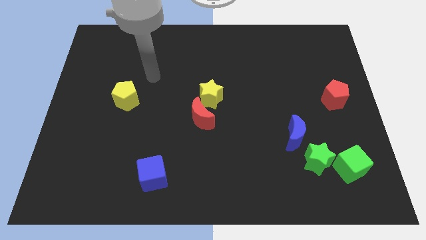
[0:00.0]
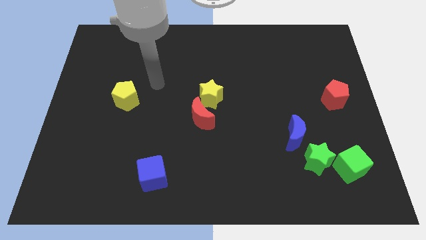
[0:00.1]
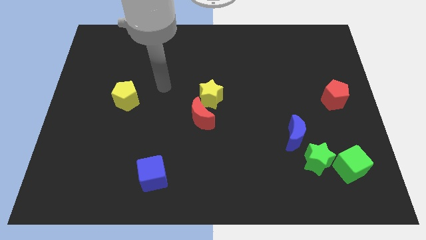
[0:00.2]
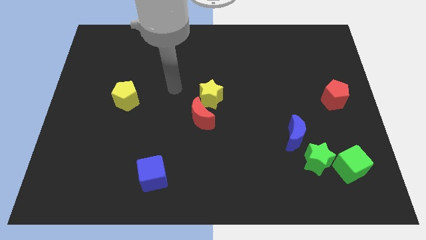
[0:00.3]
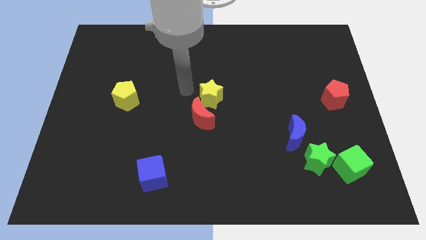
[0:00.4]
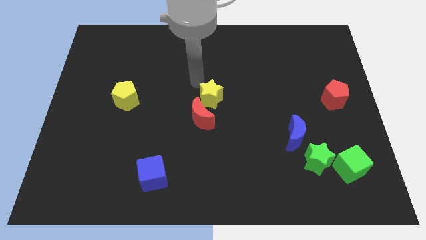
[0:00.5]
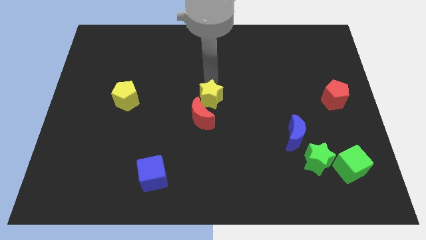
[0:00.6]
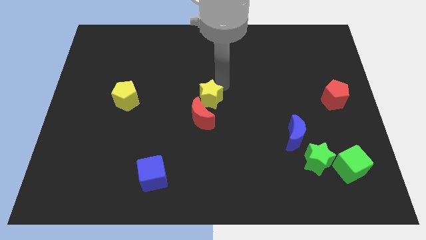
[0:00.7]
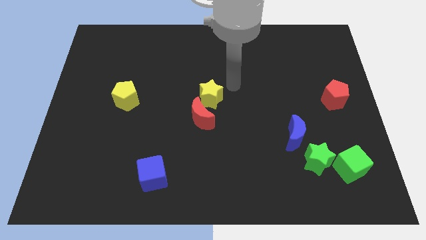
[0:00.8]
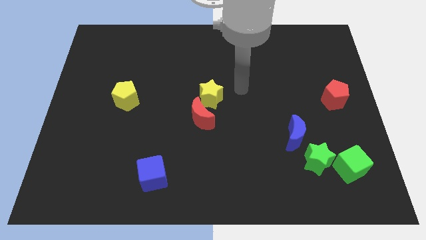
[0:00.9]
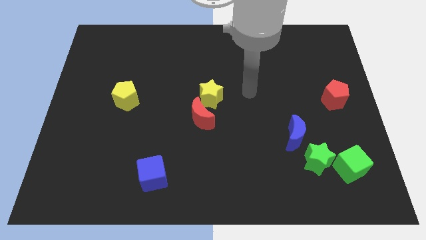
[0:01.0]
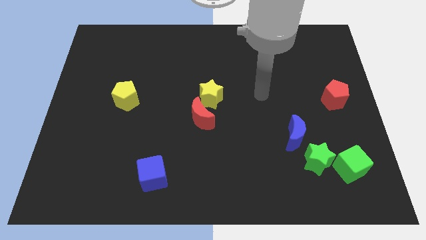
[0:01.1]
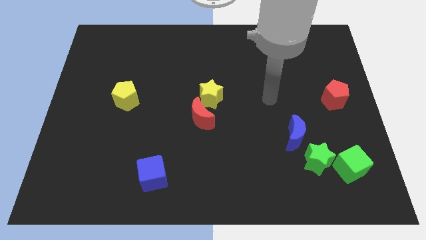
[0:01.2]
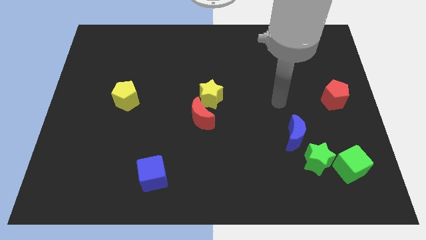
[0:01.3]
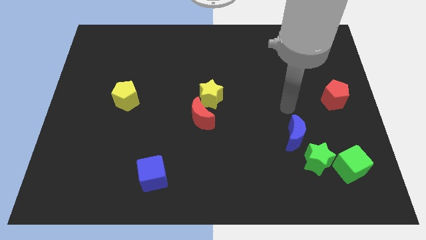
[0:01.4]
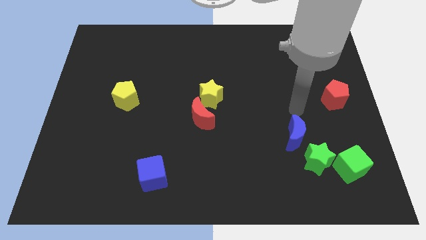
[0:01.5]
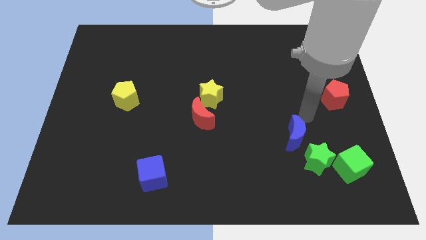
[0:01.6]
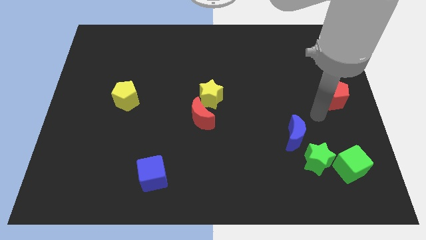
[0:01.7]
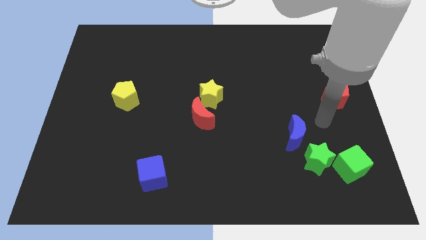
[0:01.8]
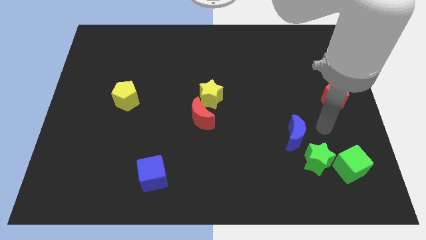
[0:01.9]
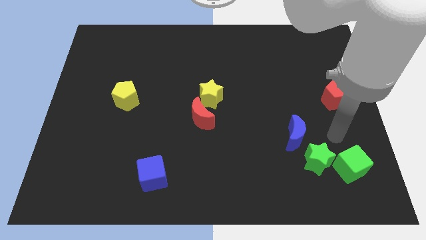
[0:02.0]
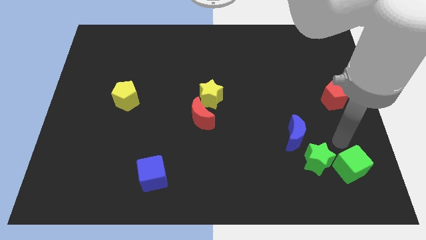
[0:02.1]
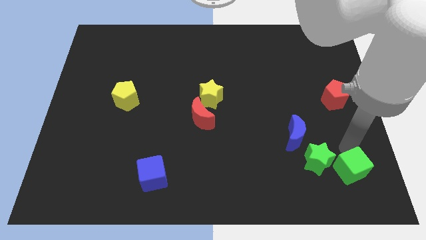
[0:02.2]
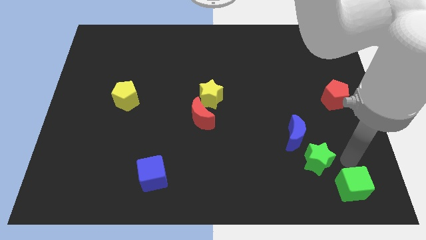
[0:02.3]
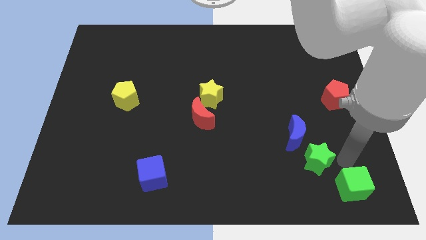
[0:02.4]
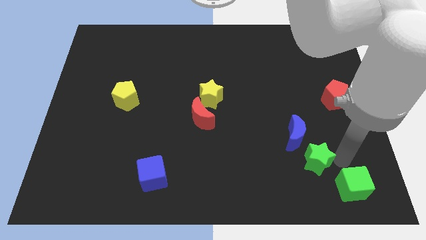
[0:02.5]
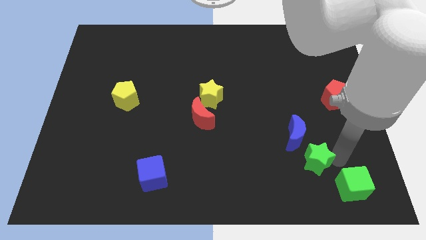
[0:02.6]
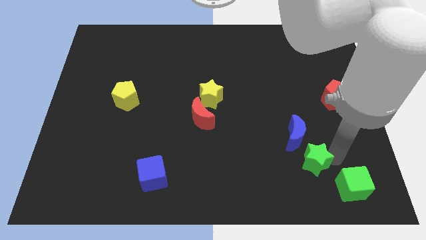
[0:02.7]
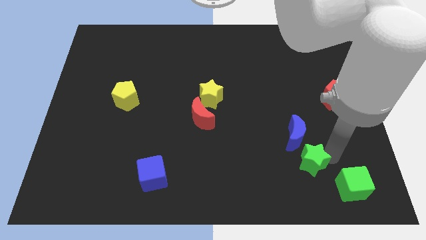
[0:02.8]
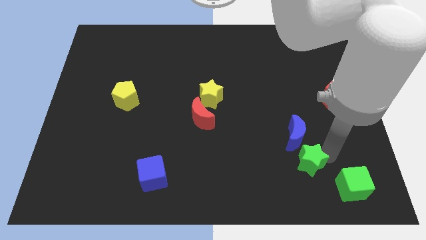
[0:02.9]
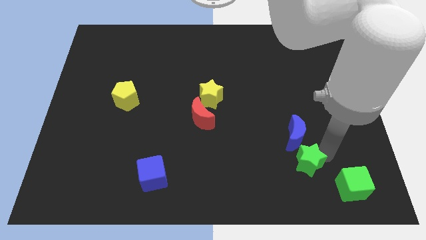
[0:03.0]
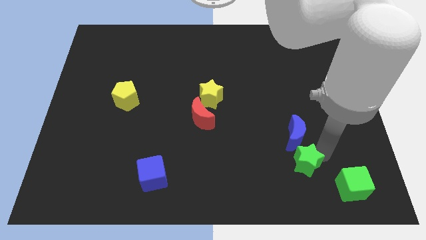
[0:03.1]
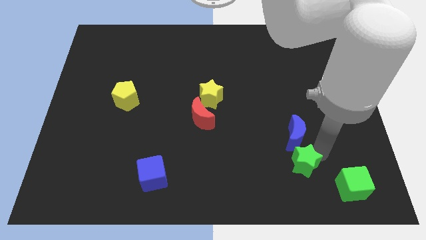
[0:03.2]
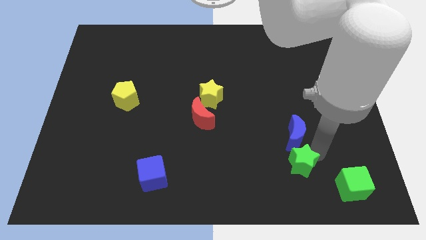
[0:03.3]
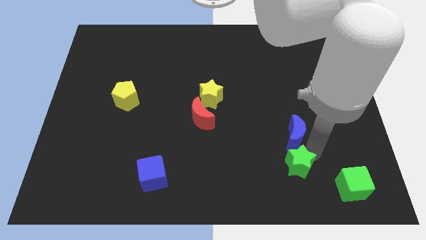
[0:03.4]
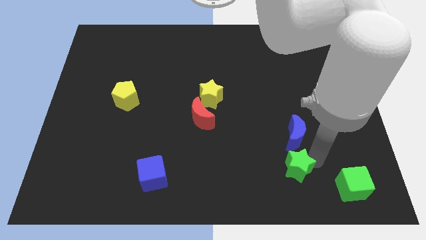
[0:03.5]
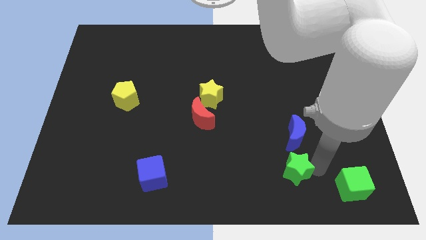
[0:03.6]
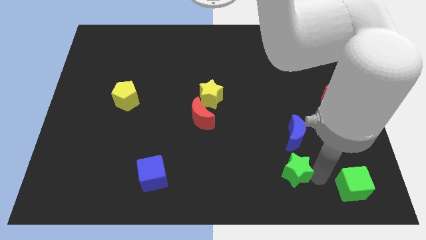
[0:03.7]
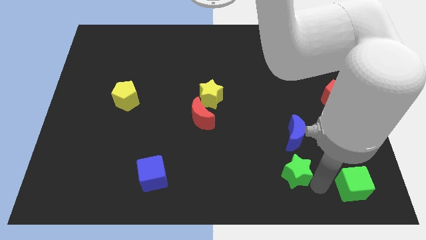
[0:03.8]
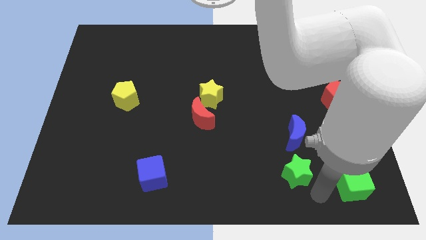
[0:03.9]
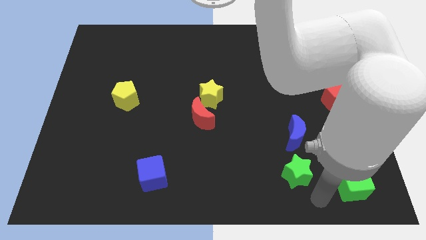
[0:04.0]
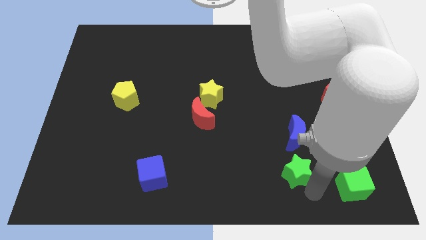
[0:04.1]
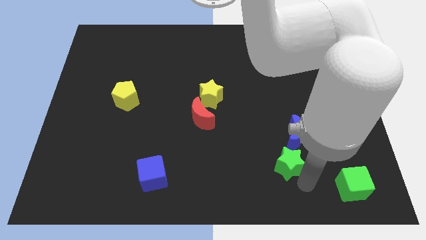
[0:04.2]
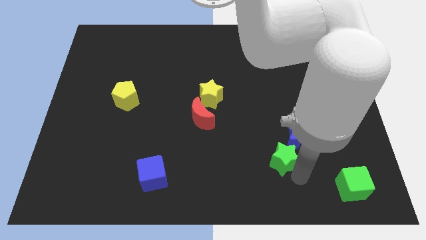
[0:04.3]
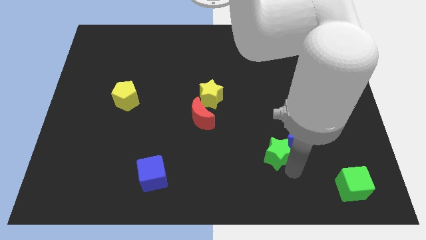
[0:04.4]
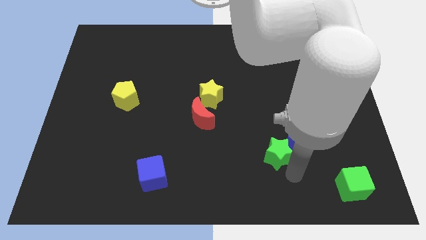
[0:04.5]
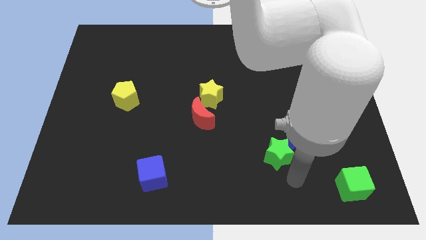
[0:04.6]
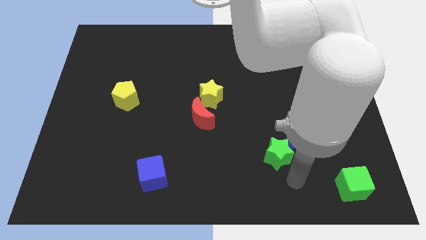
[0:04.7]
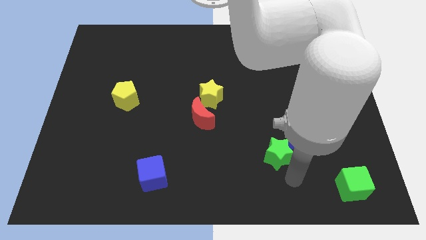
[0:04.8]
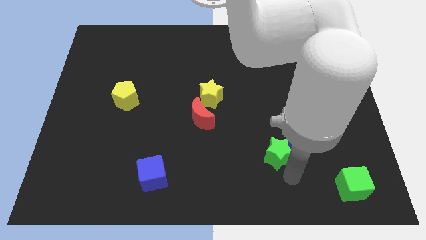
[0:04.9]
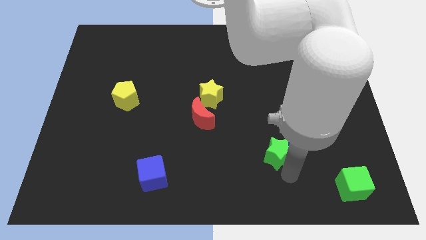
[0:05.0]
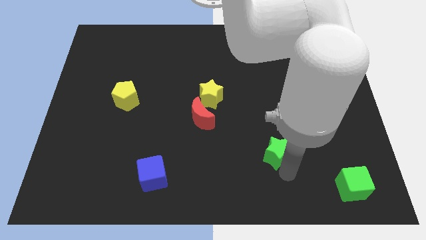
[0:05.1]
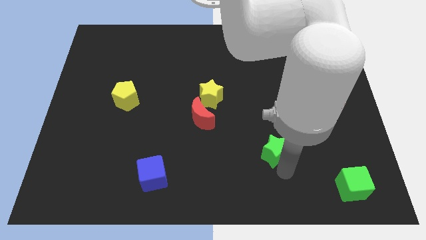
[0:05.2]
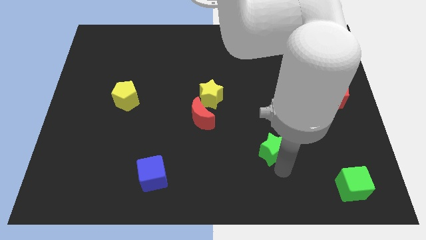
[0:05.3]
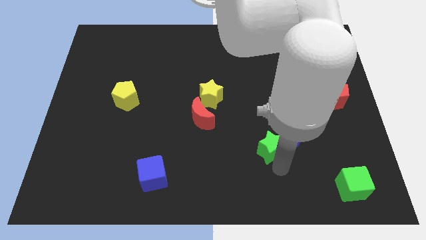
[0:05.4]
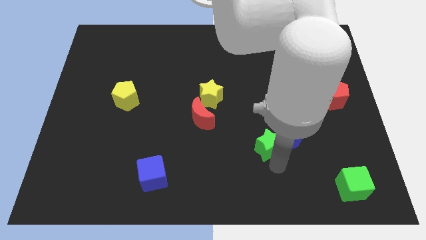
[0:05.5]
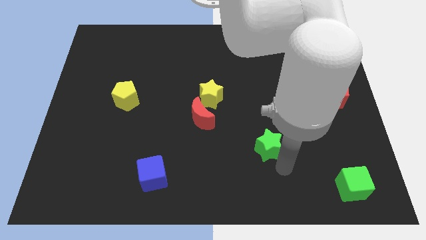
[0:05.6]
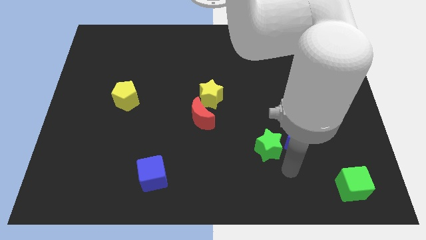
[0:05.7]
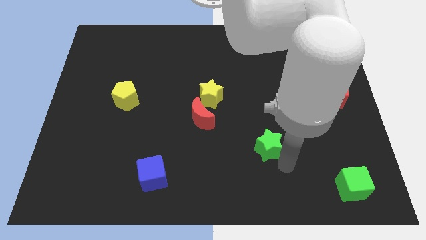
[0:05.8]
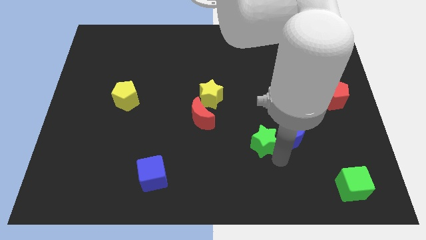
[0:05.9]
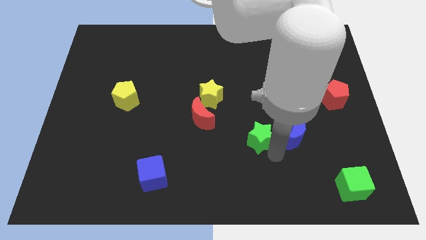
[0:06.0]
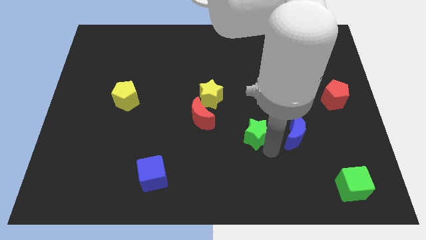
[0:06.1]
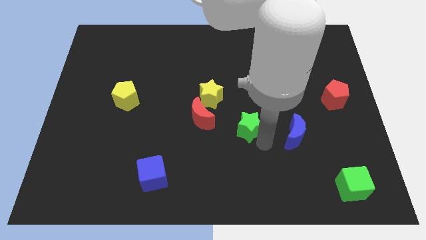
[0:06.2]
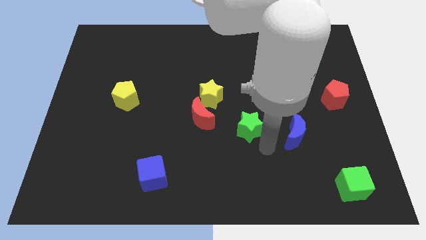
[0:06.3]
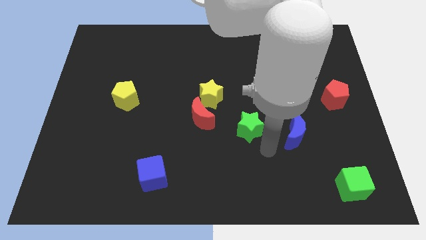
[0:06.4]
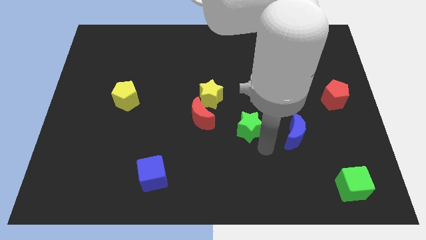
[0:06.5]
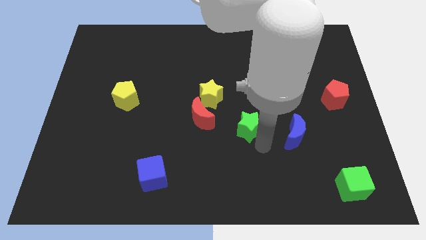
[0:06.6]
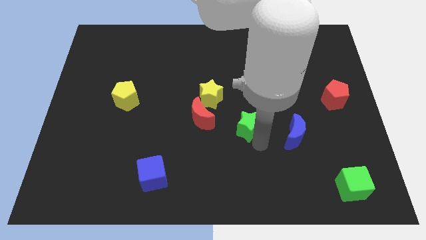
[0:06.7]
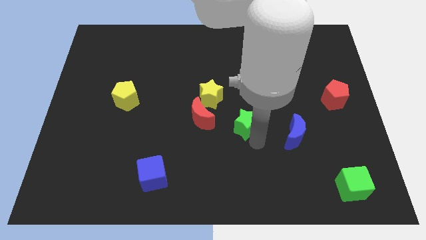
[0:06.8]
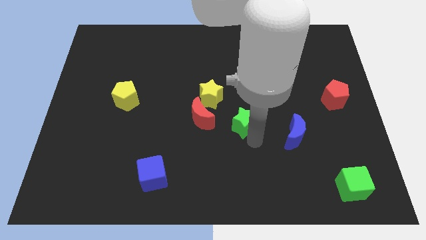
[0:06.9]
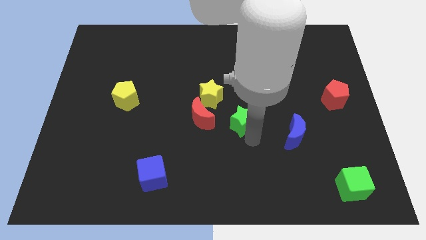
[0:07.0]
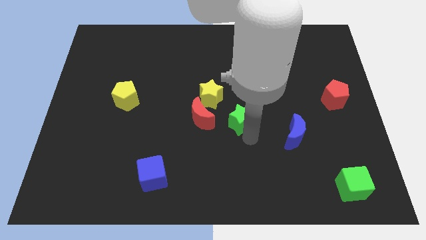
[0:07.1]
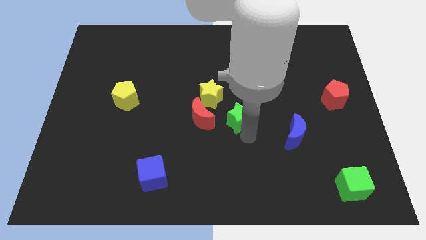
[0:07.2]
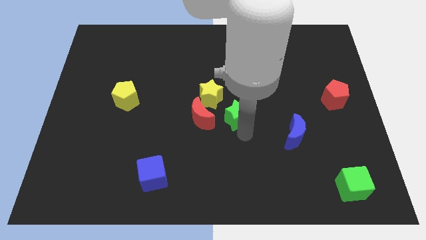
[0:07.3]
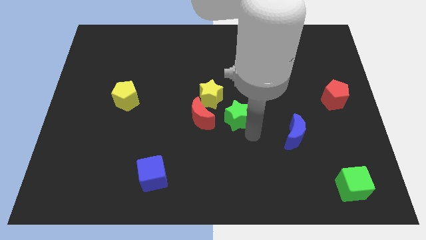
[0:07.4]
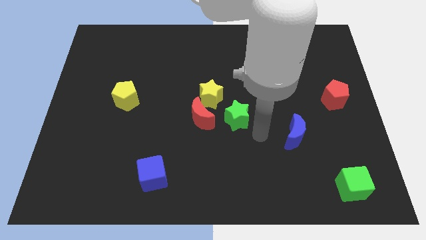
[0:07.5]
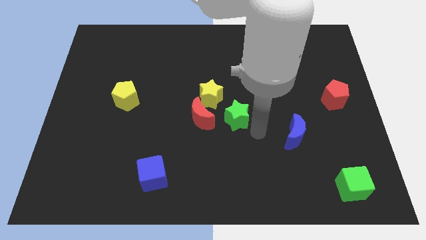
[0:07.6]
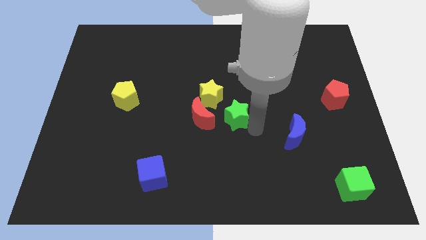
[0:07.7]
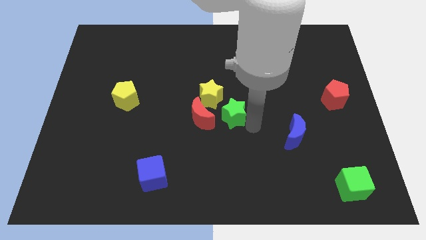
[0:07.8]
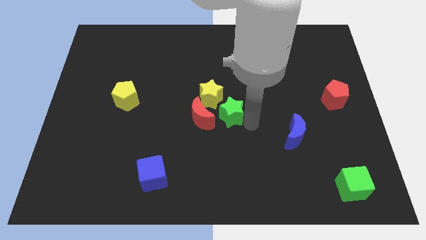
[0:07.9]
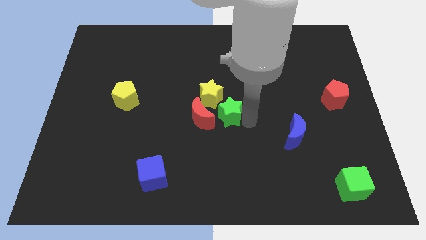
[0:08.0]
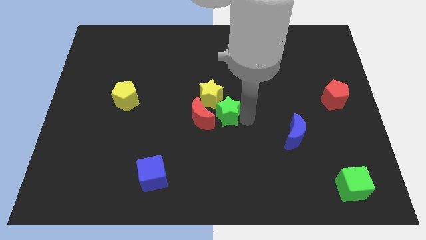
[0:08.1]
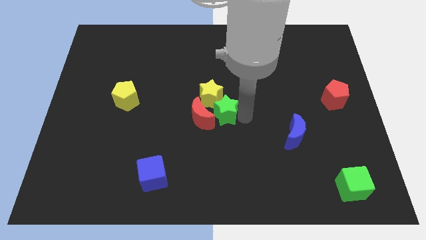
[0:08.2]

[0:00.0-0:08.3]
push the green star close to the yellow star
